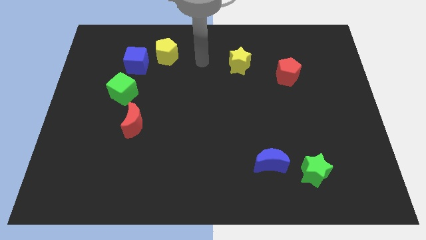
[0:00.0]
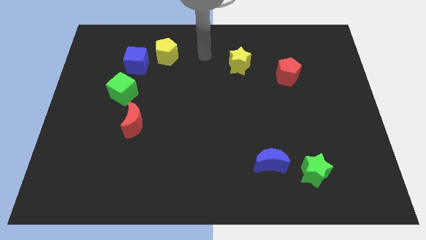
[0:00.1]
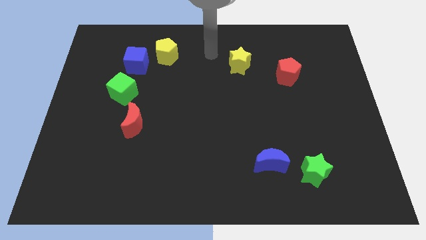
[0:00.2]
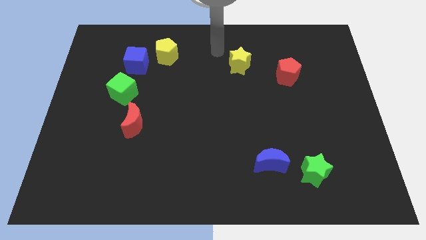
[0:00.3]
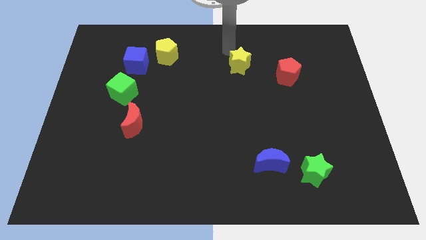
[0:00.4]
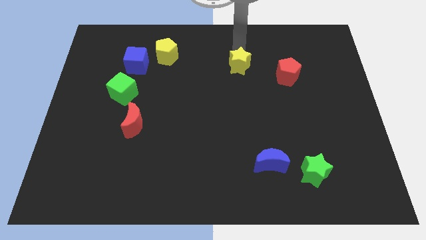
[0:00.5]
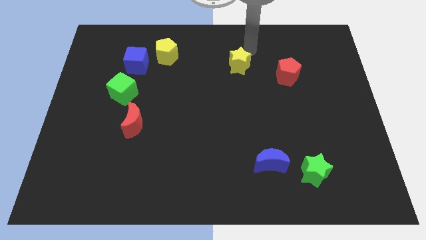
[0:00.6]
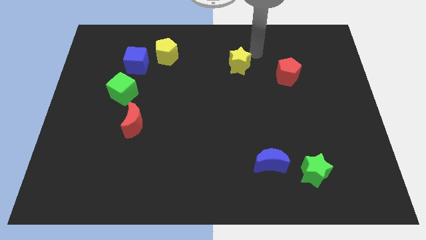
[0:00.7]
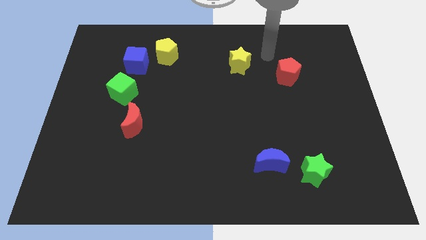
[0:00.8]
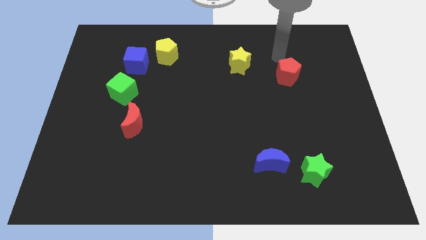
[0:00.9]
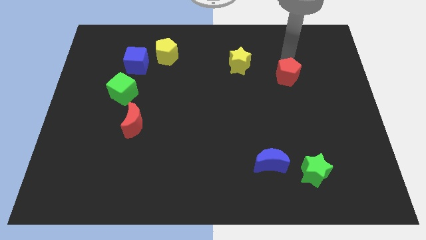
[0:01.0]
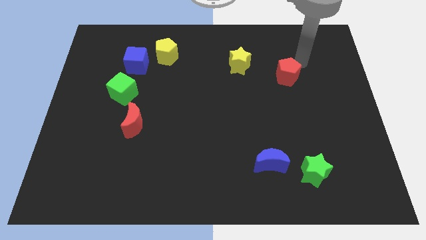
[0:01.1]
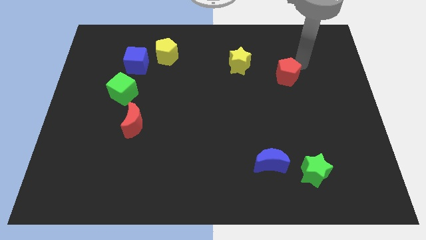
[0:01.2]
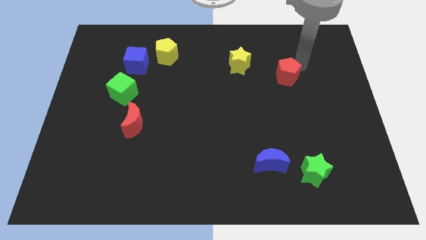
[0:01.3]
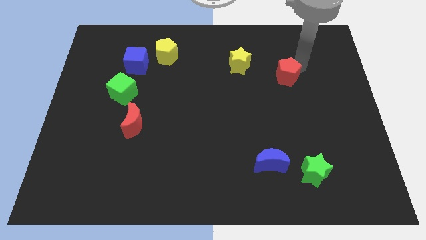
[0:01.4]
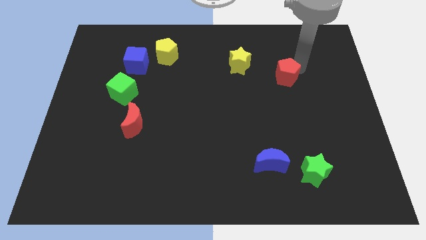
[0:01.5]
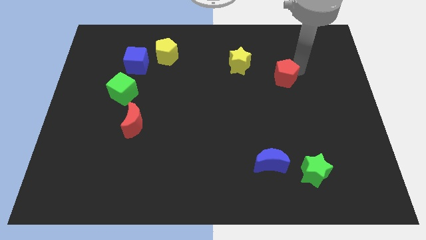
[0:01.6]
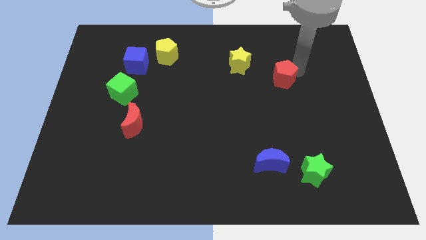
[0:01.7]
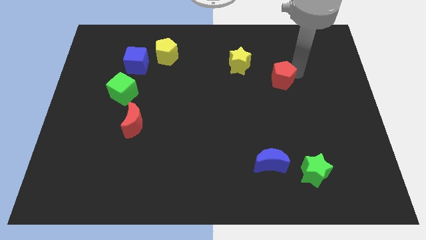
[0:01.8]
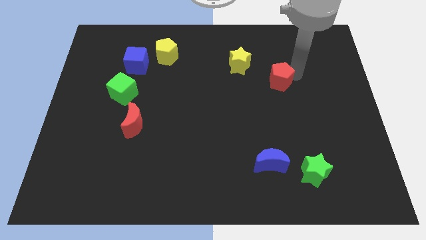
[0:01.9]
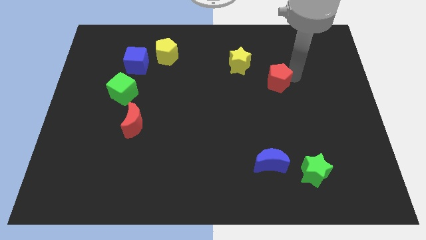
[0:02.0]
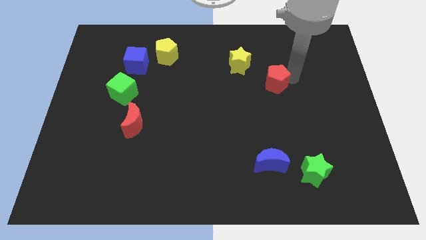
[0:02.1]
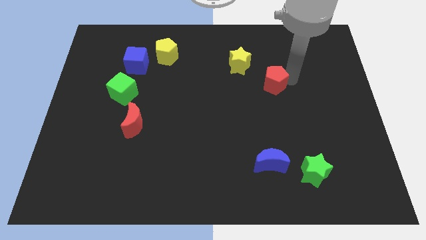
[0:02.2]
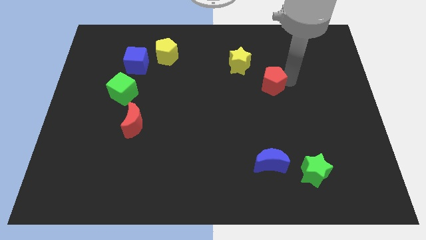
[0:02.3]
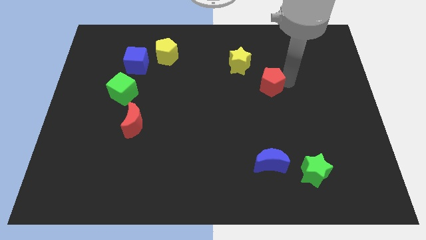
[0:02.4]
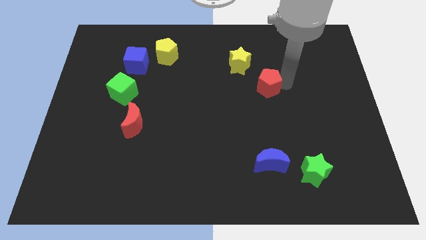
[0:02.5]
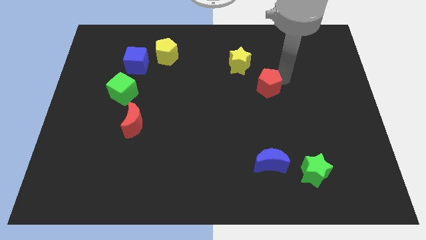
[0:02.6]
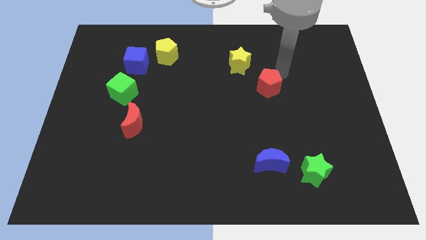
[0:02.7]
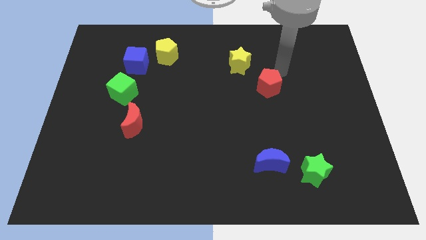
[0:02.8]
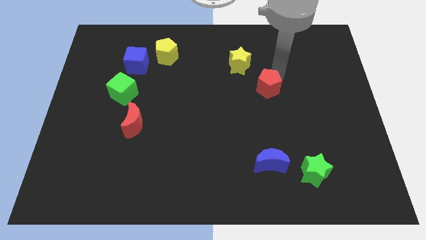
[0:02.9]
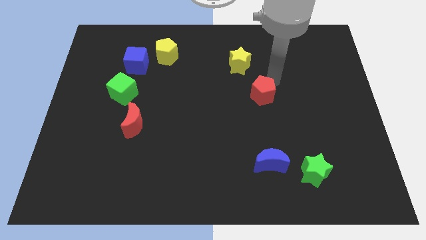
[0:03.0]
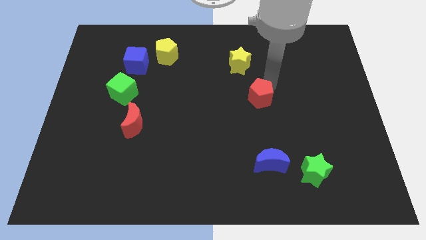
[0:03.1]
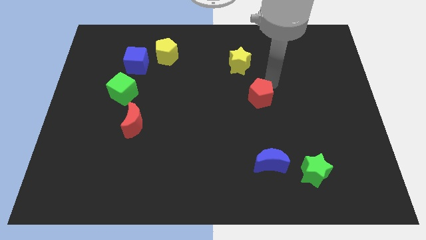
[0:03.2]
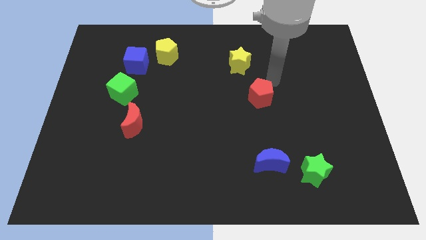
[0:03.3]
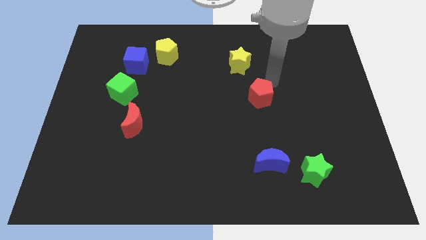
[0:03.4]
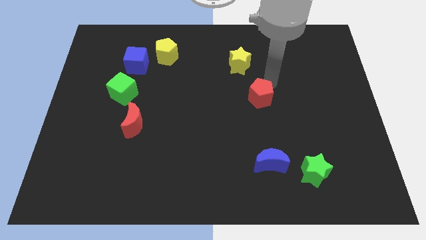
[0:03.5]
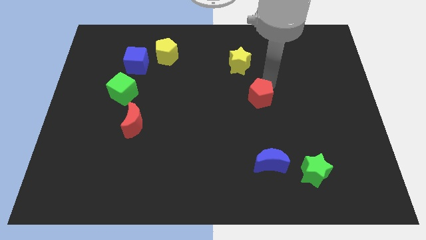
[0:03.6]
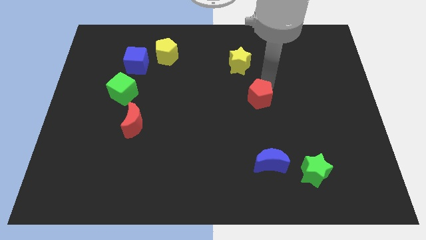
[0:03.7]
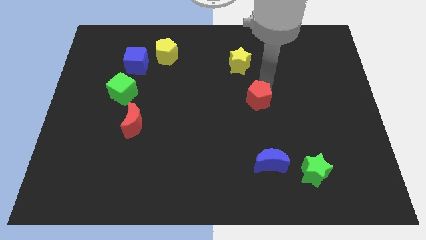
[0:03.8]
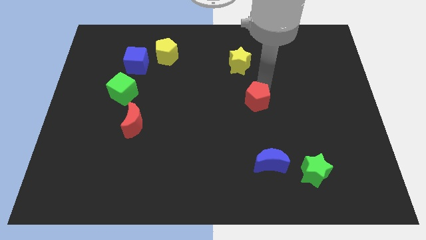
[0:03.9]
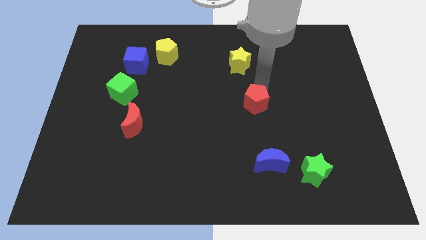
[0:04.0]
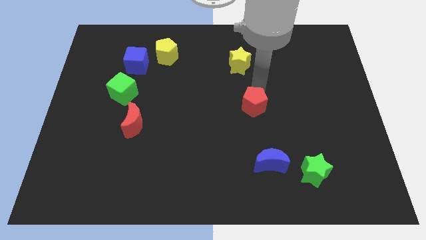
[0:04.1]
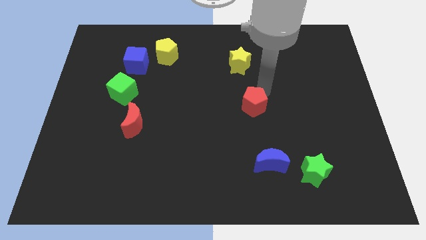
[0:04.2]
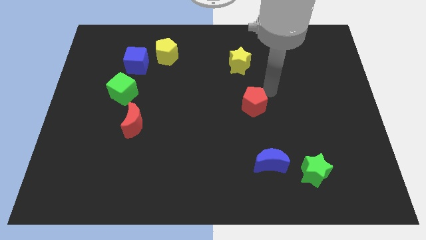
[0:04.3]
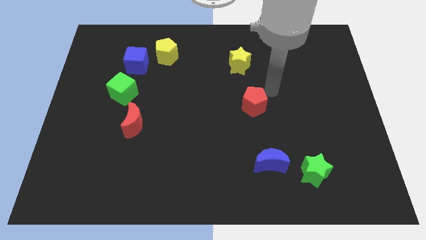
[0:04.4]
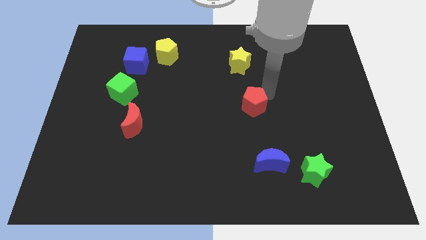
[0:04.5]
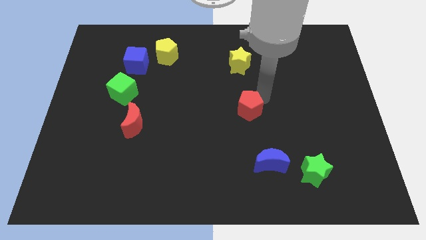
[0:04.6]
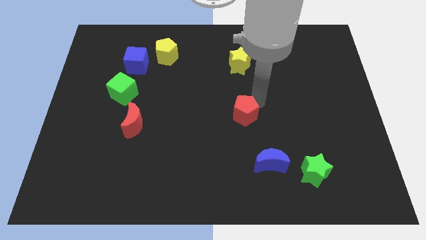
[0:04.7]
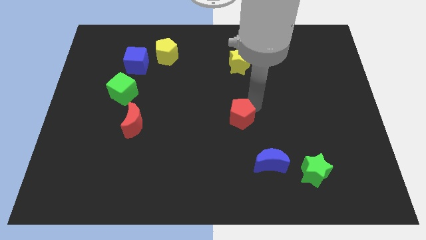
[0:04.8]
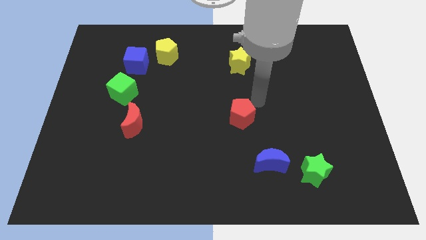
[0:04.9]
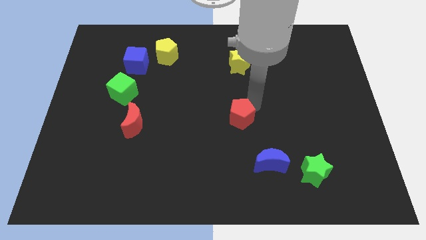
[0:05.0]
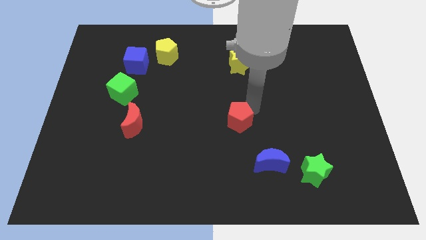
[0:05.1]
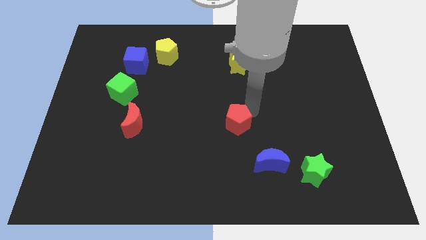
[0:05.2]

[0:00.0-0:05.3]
slide the red pentagon downwards and then left

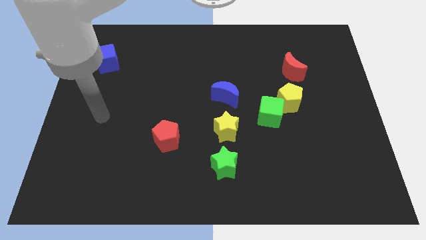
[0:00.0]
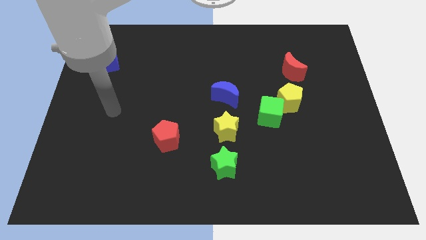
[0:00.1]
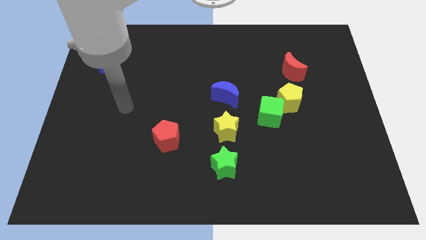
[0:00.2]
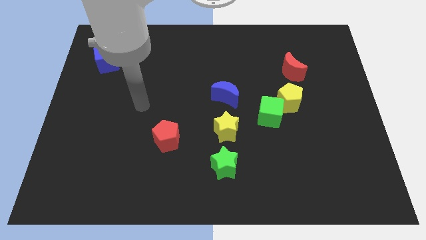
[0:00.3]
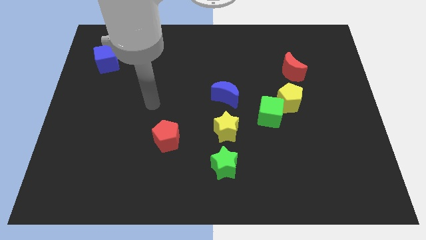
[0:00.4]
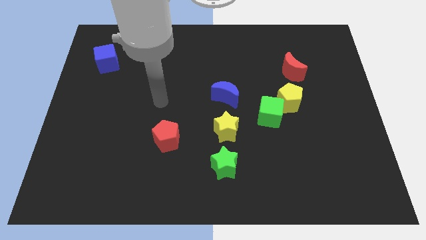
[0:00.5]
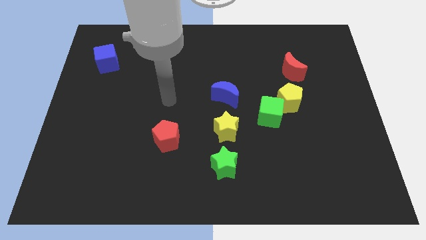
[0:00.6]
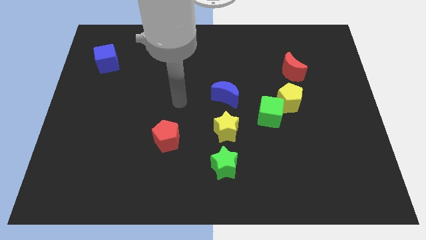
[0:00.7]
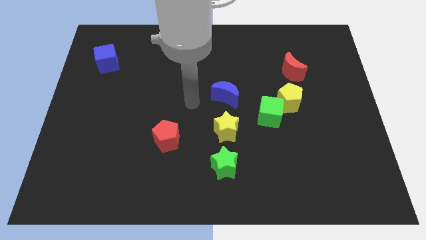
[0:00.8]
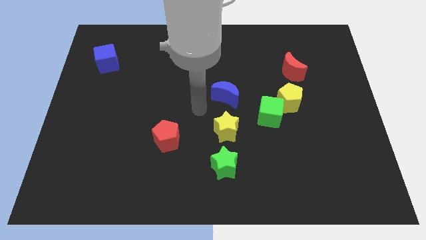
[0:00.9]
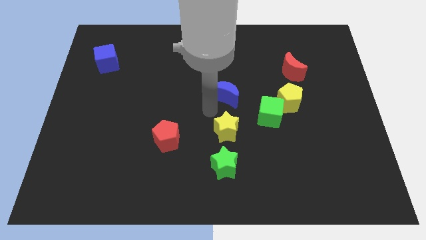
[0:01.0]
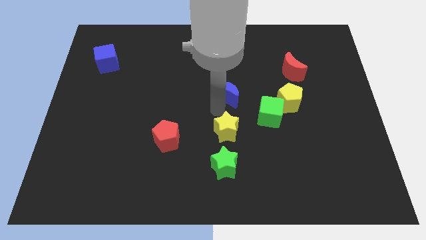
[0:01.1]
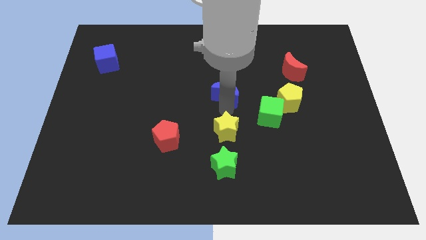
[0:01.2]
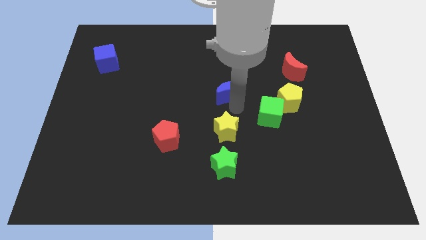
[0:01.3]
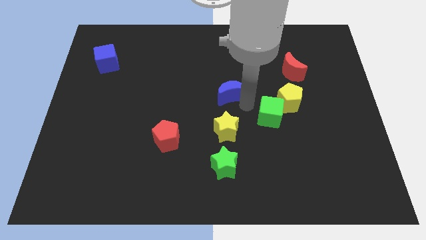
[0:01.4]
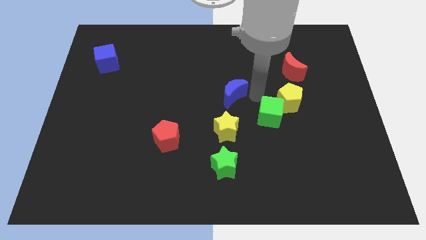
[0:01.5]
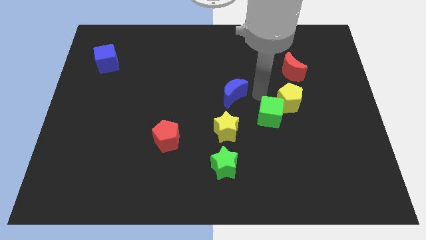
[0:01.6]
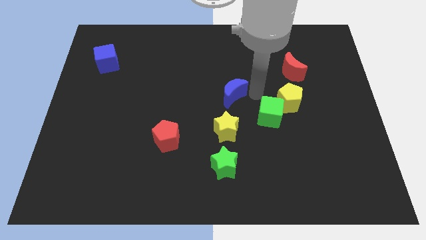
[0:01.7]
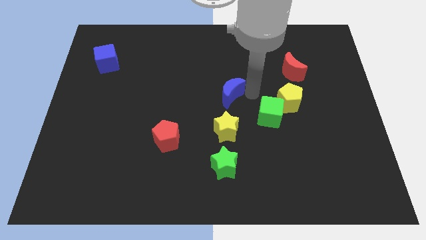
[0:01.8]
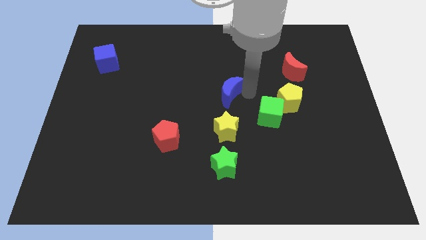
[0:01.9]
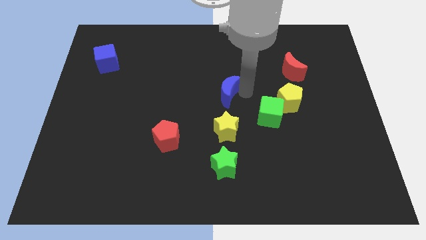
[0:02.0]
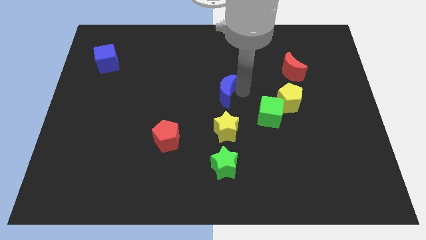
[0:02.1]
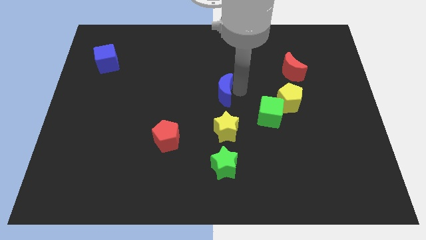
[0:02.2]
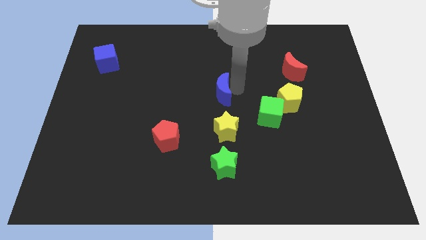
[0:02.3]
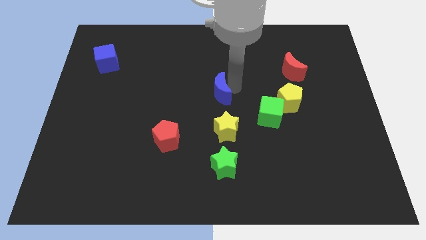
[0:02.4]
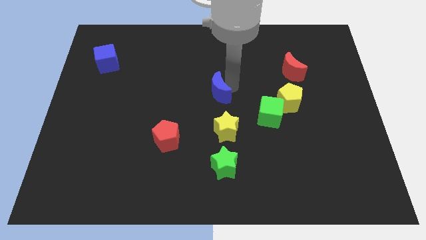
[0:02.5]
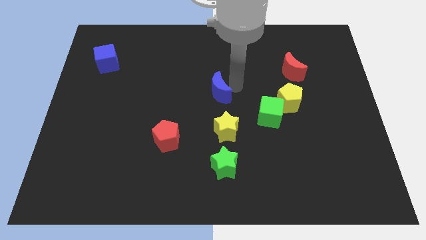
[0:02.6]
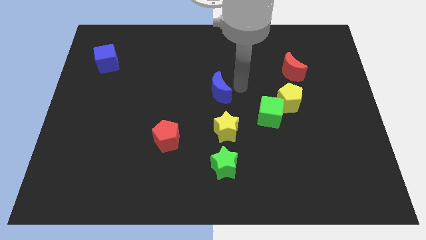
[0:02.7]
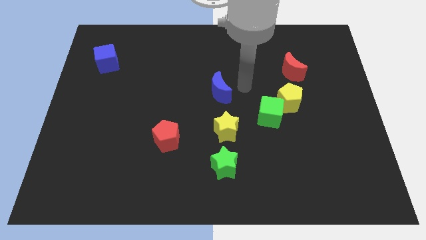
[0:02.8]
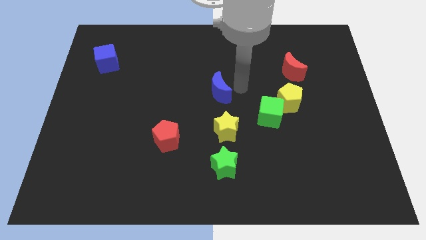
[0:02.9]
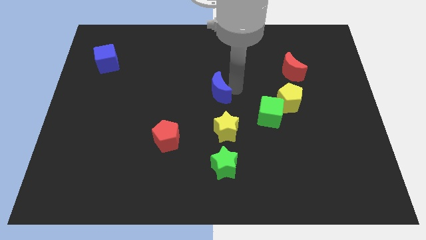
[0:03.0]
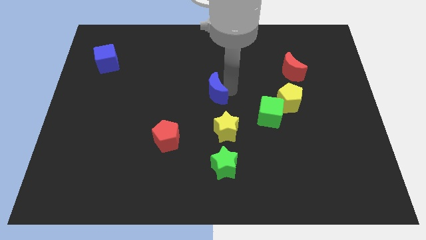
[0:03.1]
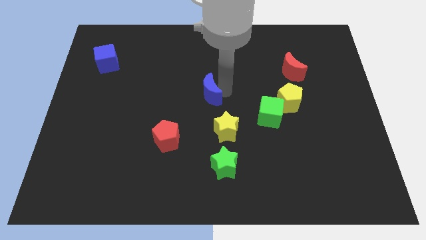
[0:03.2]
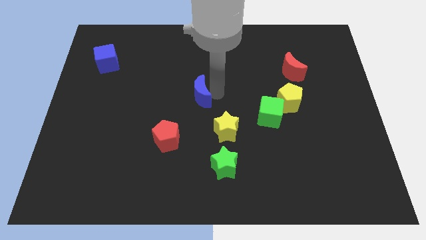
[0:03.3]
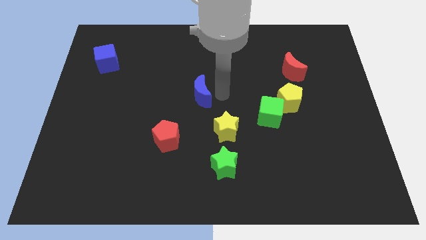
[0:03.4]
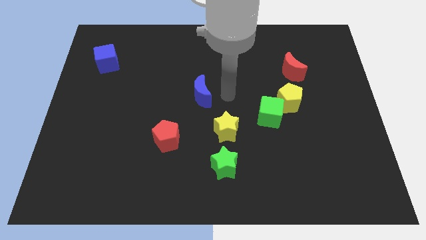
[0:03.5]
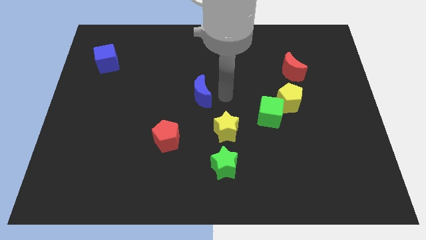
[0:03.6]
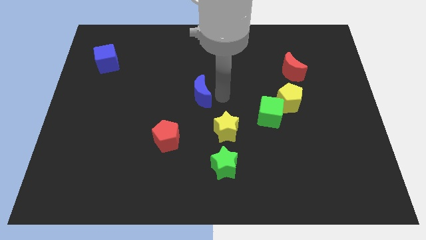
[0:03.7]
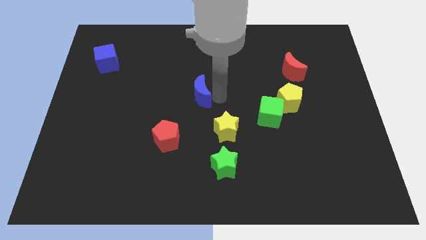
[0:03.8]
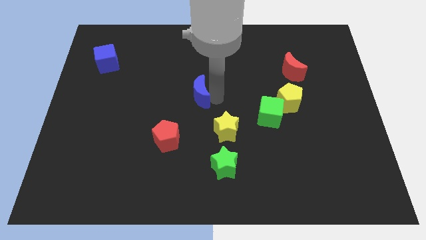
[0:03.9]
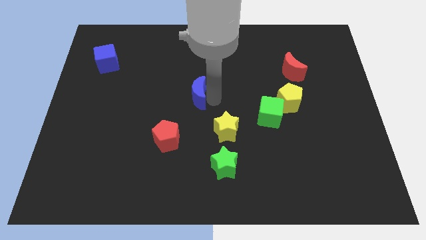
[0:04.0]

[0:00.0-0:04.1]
push the blue moon left somewhat
